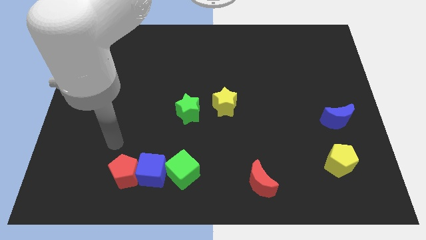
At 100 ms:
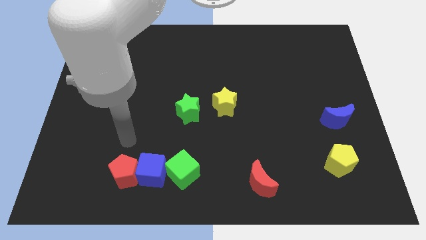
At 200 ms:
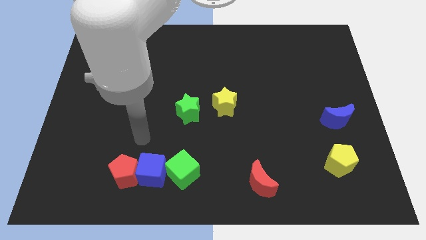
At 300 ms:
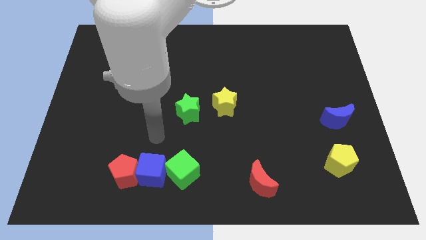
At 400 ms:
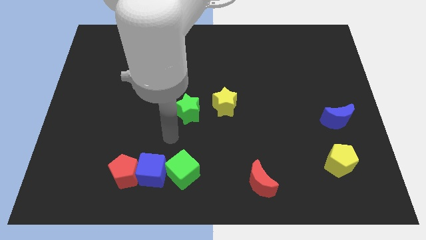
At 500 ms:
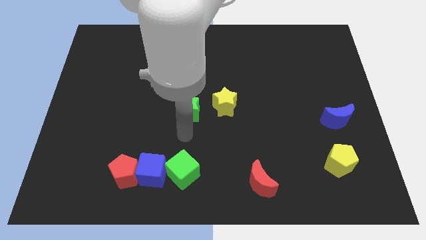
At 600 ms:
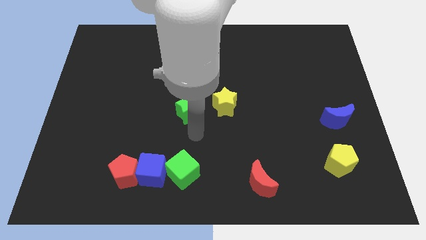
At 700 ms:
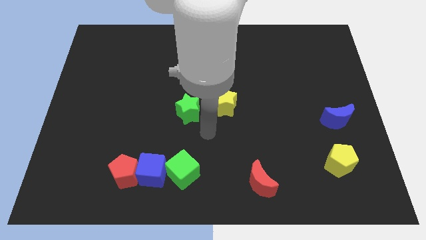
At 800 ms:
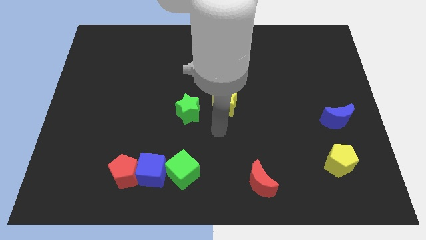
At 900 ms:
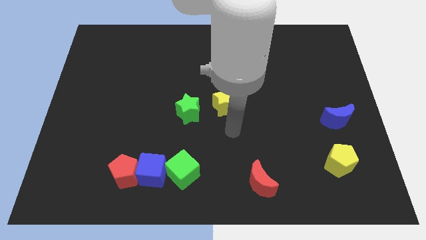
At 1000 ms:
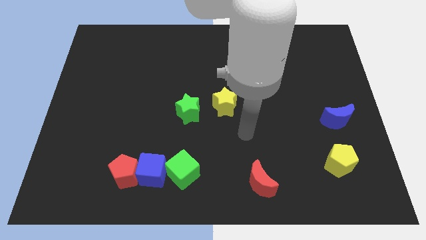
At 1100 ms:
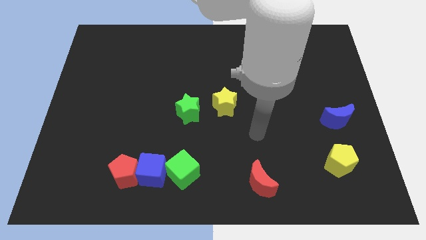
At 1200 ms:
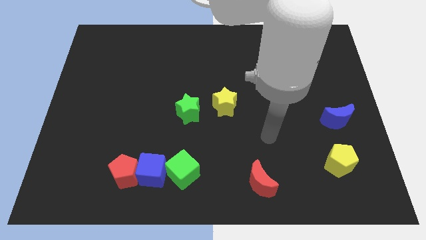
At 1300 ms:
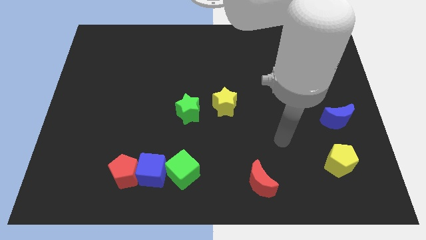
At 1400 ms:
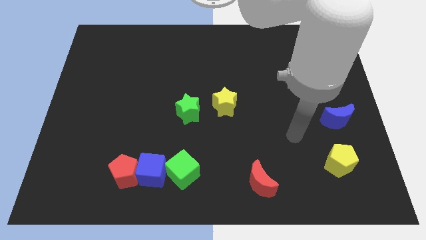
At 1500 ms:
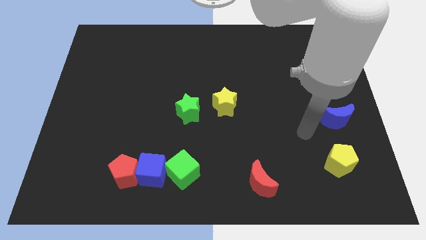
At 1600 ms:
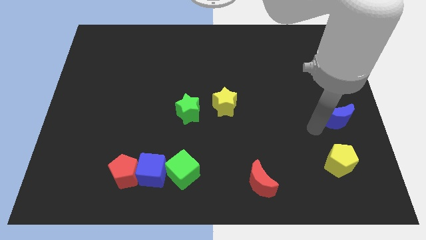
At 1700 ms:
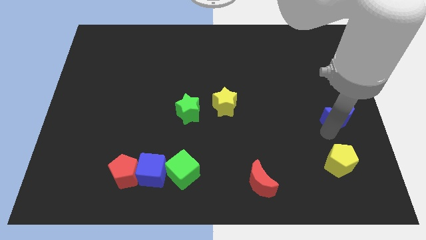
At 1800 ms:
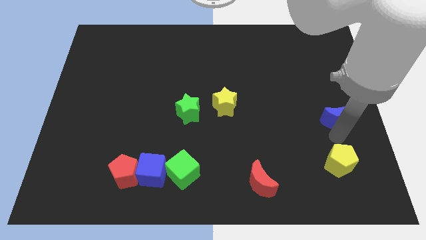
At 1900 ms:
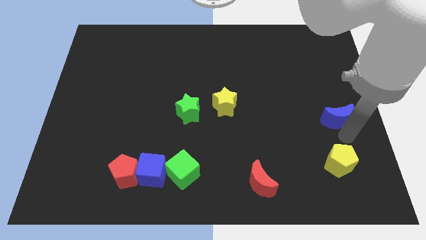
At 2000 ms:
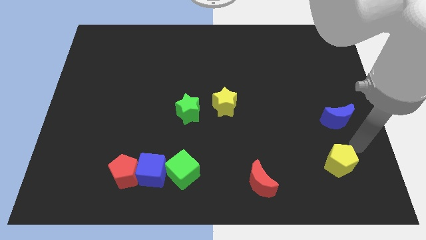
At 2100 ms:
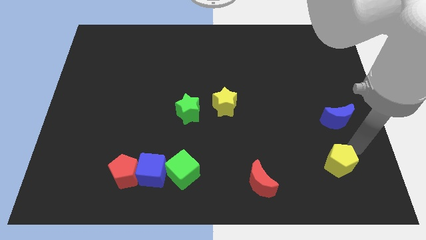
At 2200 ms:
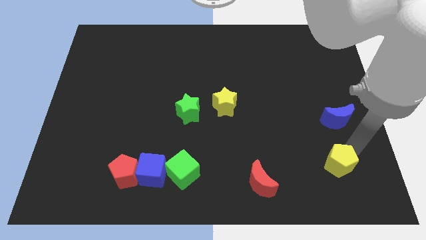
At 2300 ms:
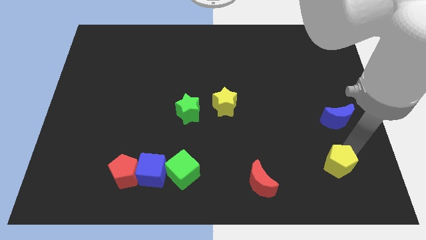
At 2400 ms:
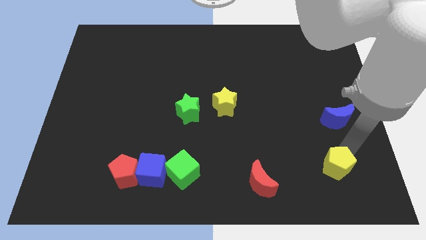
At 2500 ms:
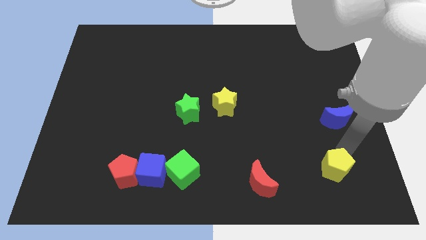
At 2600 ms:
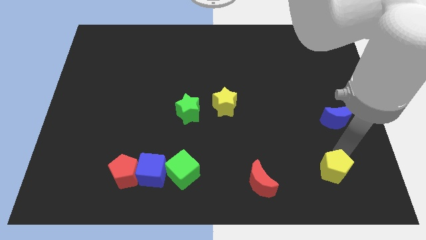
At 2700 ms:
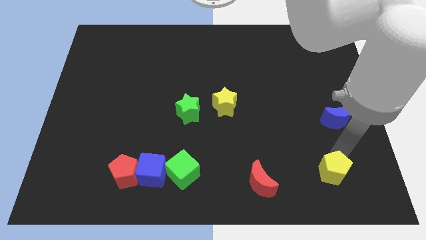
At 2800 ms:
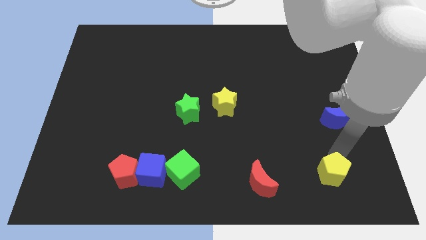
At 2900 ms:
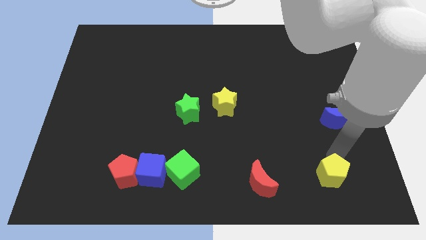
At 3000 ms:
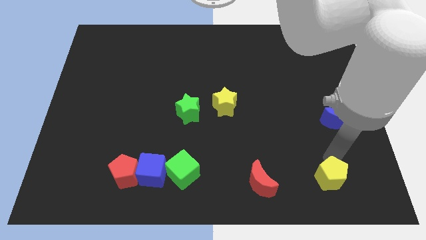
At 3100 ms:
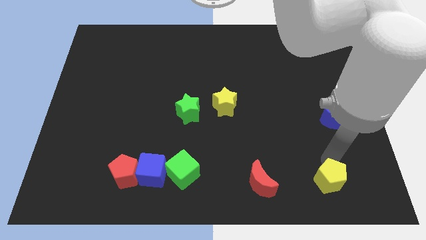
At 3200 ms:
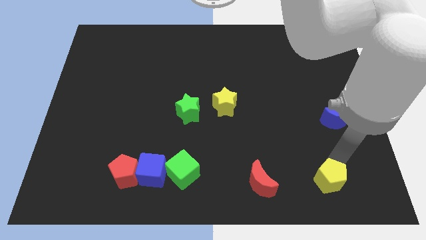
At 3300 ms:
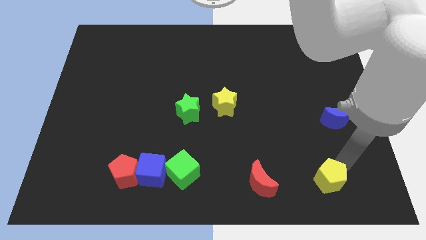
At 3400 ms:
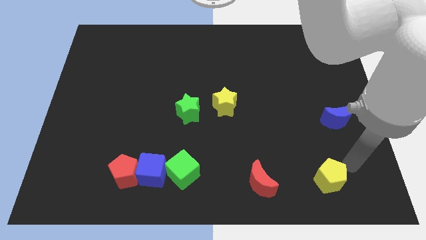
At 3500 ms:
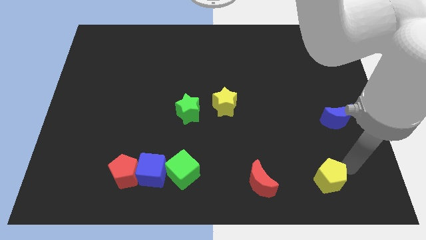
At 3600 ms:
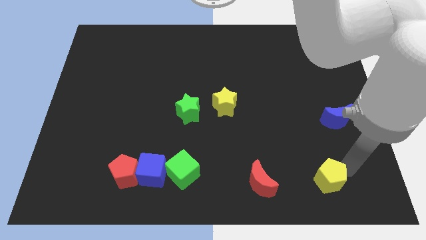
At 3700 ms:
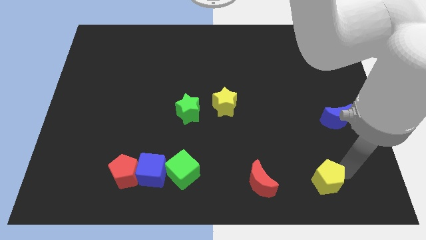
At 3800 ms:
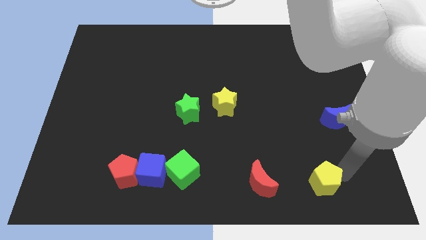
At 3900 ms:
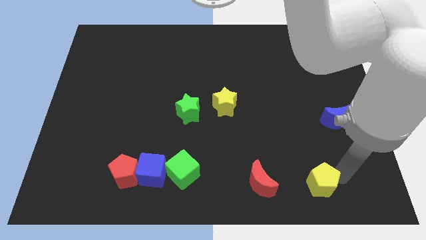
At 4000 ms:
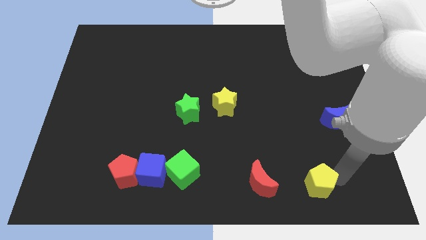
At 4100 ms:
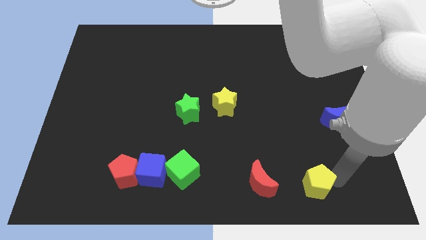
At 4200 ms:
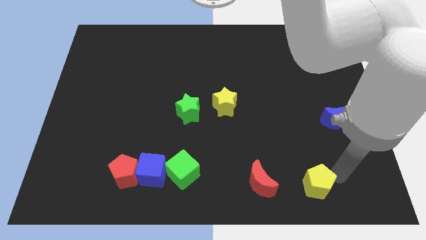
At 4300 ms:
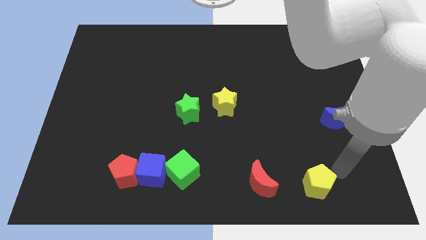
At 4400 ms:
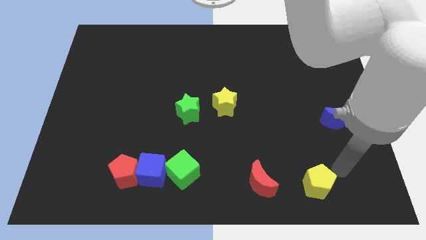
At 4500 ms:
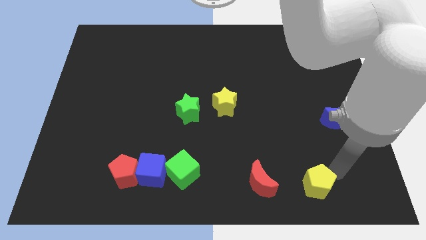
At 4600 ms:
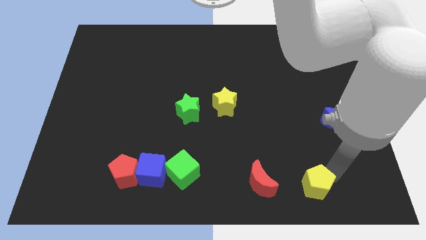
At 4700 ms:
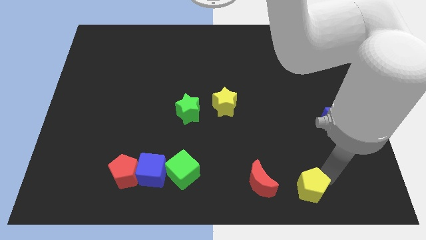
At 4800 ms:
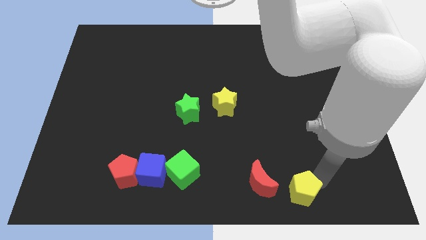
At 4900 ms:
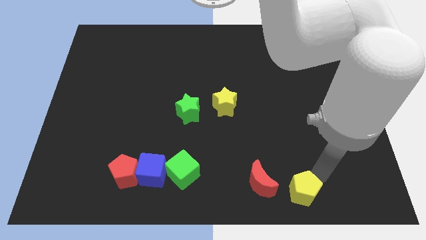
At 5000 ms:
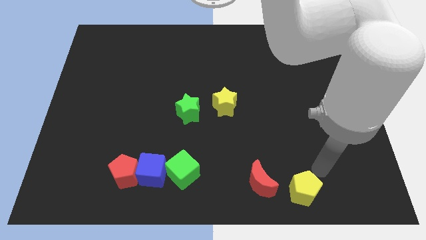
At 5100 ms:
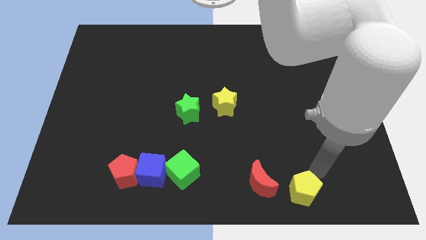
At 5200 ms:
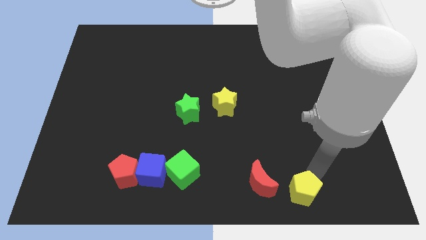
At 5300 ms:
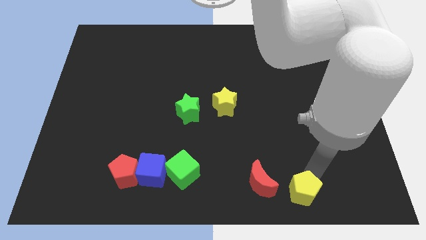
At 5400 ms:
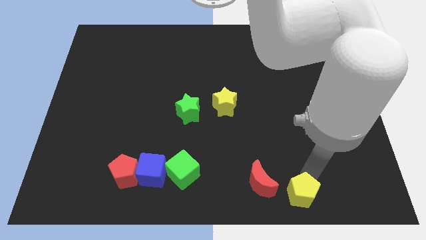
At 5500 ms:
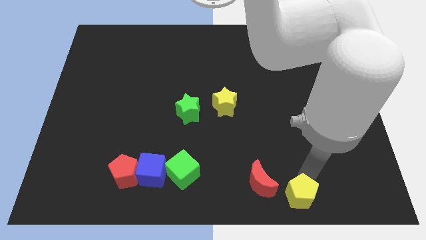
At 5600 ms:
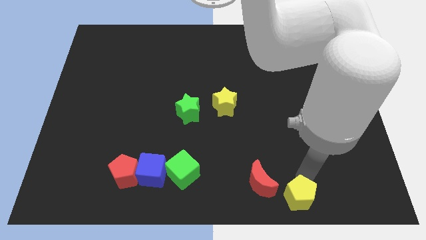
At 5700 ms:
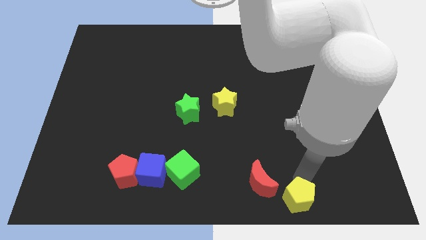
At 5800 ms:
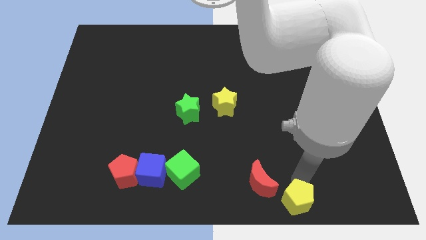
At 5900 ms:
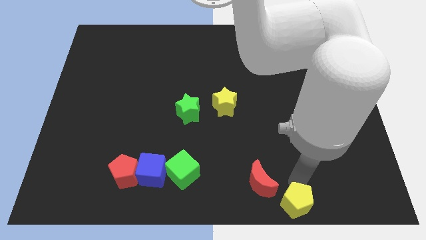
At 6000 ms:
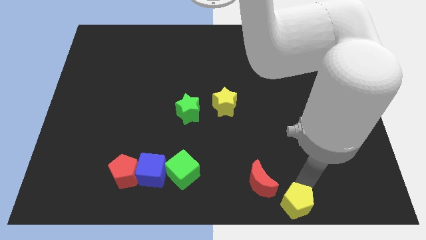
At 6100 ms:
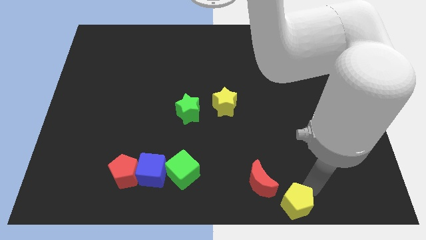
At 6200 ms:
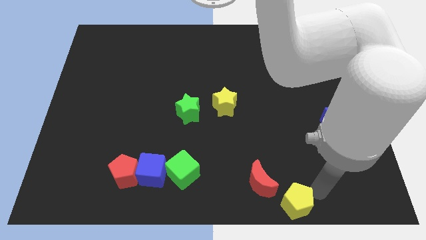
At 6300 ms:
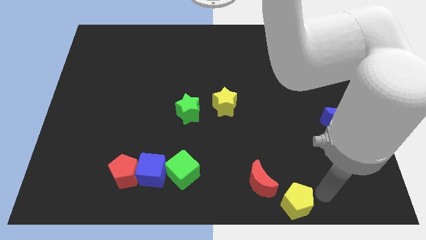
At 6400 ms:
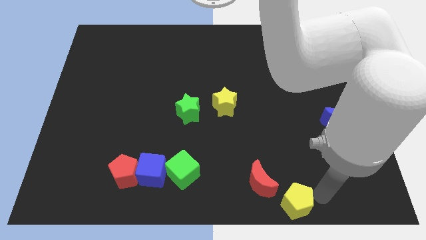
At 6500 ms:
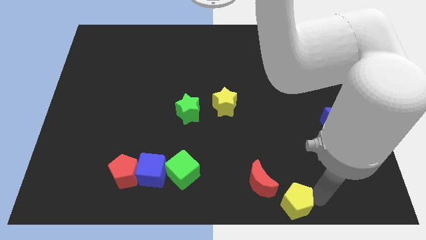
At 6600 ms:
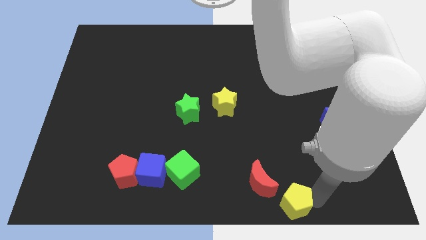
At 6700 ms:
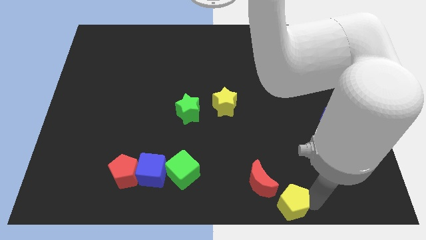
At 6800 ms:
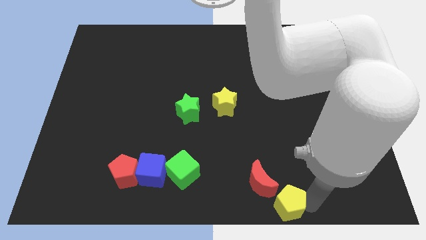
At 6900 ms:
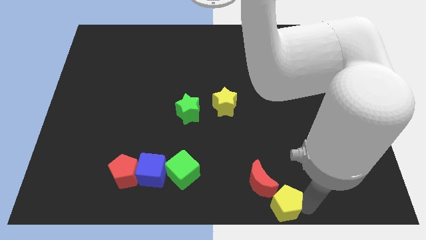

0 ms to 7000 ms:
slide the yellow pentagon to the bottom side
